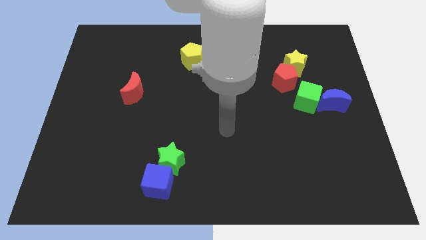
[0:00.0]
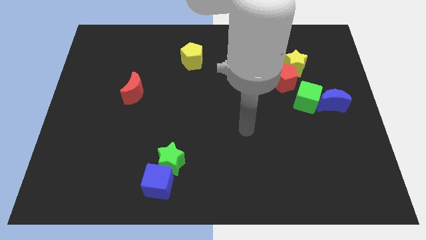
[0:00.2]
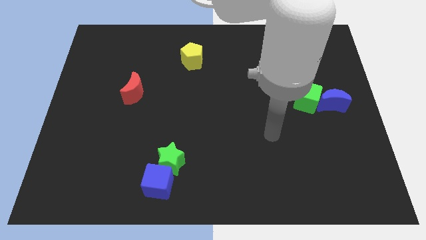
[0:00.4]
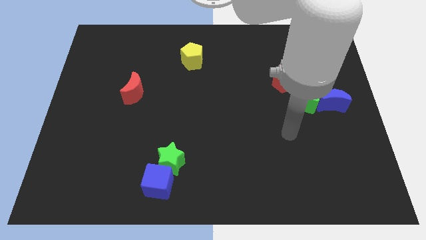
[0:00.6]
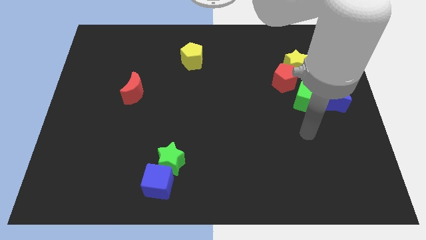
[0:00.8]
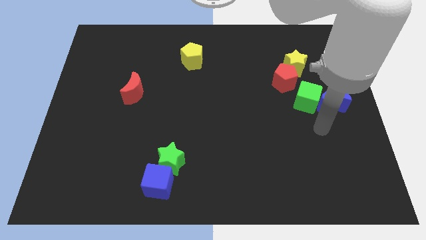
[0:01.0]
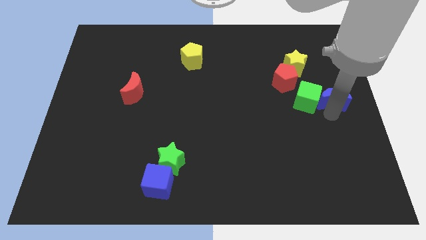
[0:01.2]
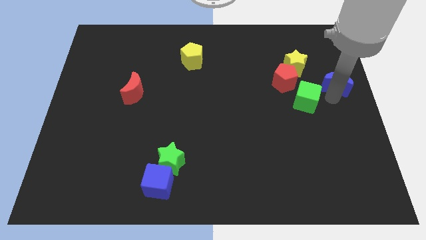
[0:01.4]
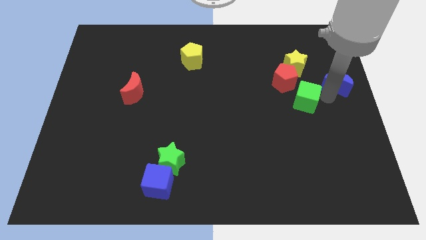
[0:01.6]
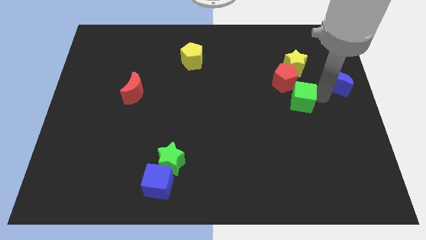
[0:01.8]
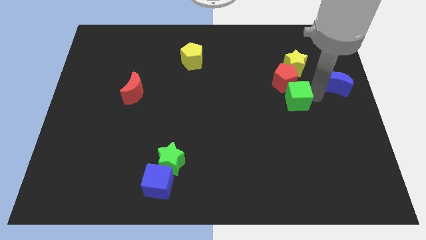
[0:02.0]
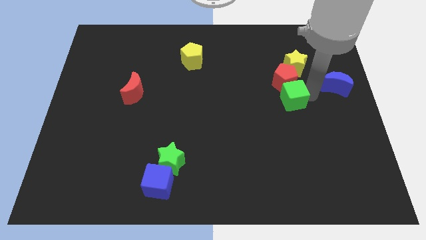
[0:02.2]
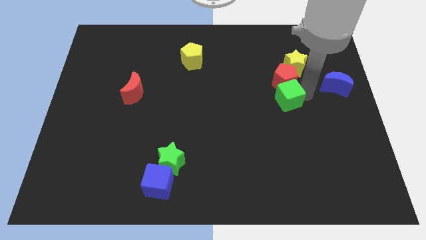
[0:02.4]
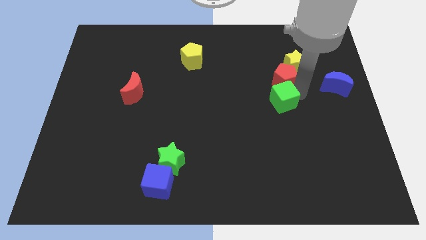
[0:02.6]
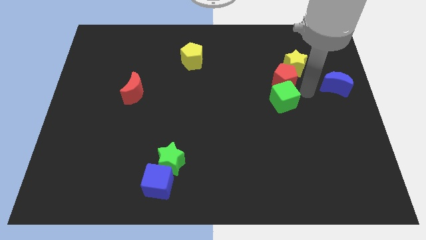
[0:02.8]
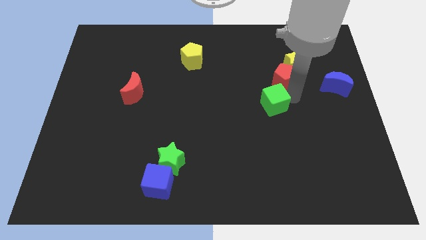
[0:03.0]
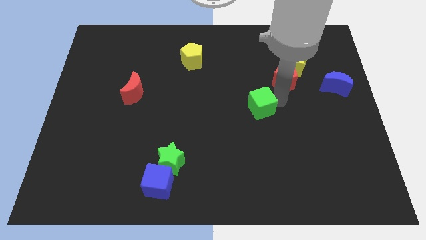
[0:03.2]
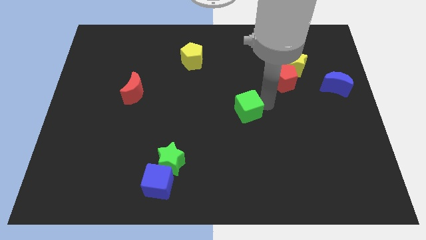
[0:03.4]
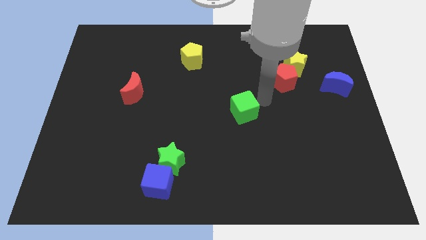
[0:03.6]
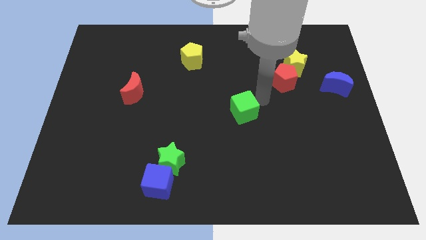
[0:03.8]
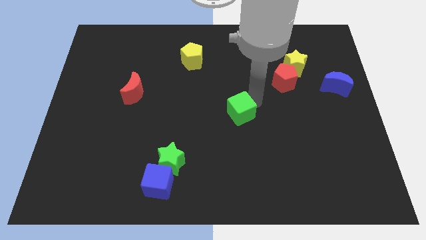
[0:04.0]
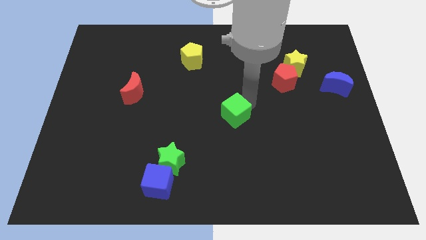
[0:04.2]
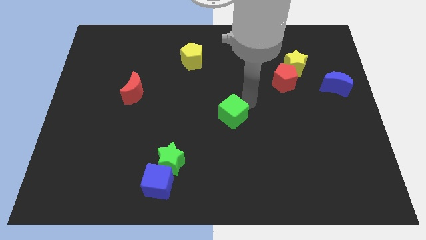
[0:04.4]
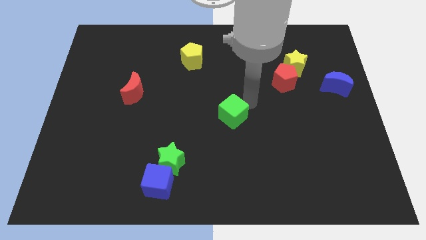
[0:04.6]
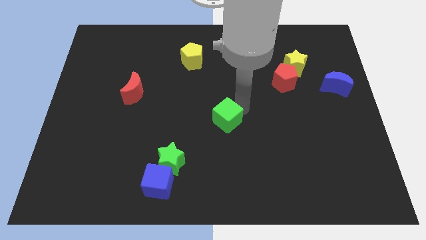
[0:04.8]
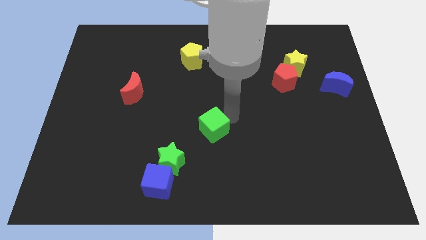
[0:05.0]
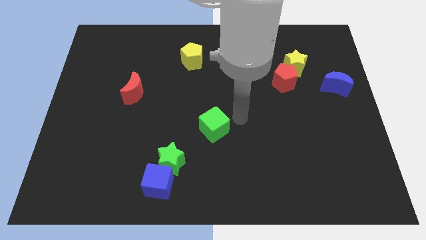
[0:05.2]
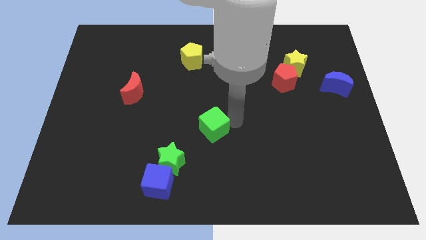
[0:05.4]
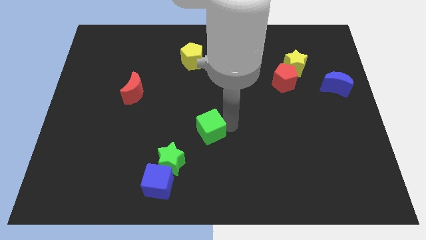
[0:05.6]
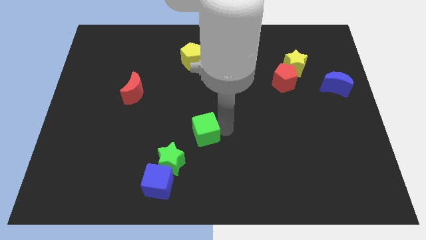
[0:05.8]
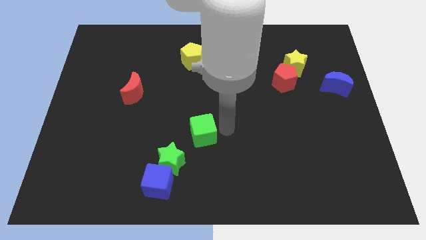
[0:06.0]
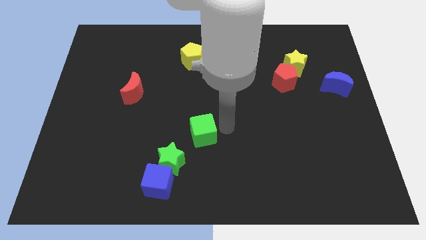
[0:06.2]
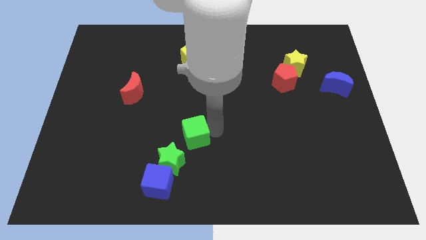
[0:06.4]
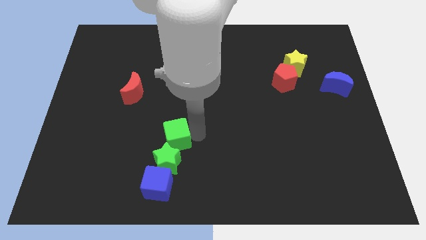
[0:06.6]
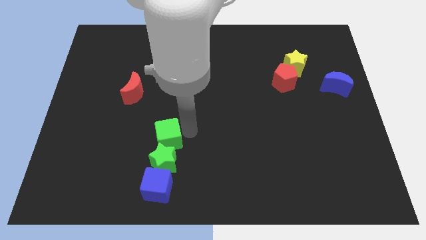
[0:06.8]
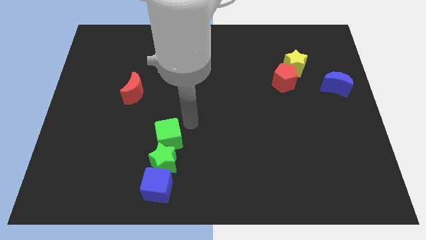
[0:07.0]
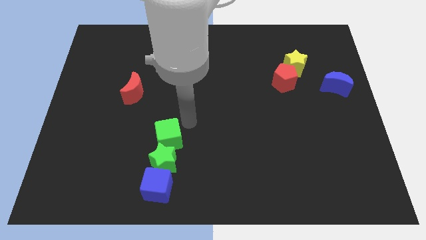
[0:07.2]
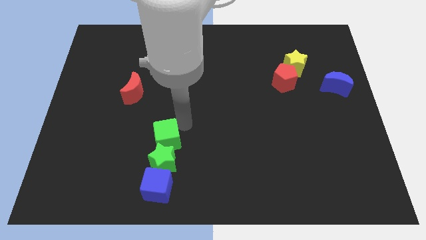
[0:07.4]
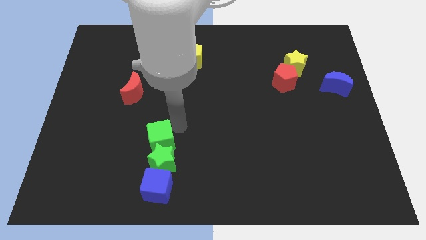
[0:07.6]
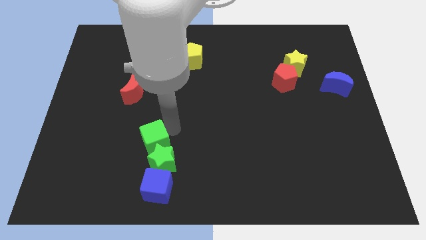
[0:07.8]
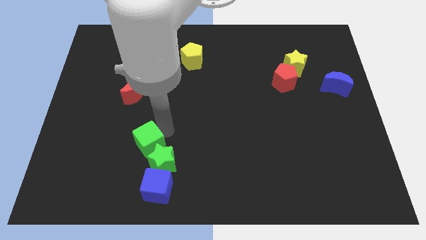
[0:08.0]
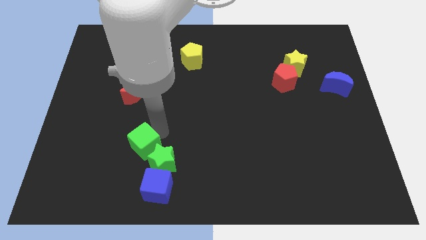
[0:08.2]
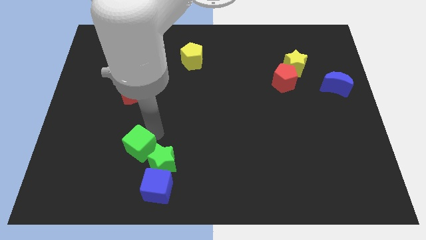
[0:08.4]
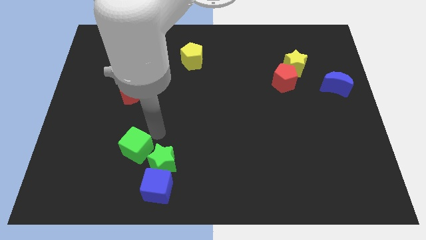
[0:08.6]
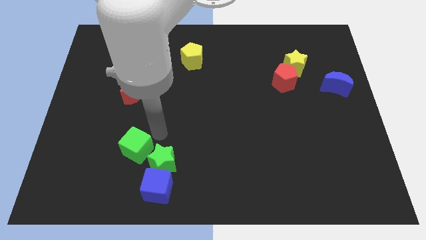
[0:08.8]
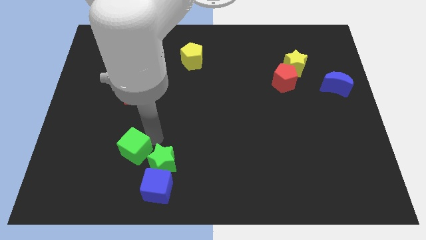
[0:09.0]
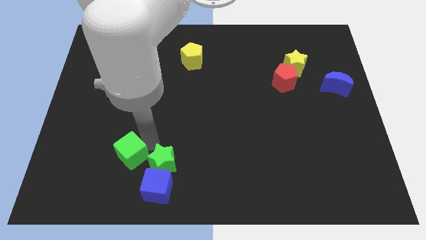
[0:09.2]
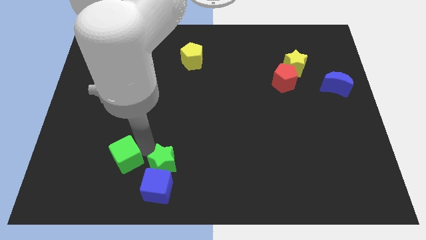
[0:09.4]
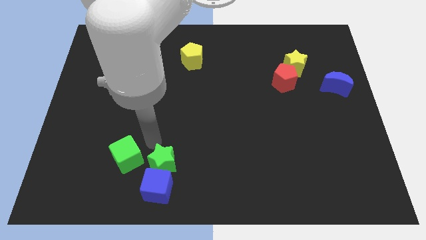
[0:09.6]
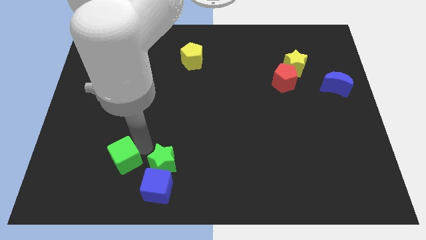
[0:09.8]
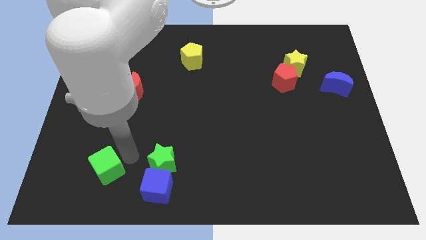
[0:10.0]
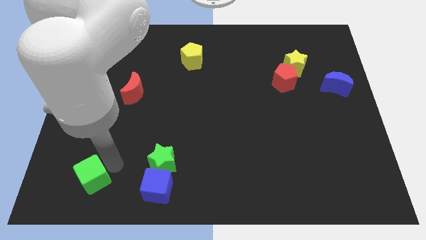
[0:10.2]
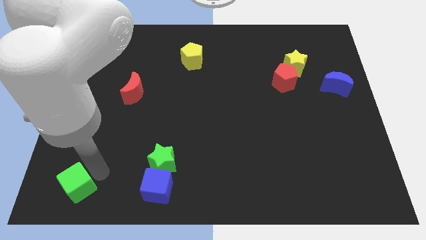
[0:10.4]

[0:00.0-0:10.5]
move the green cube to the bottom left

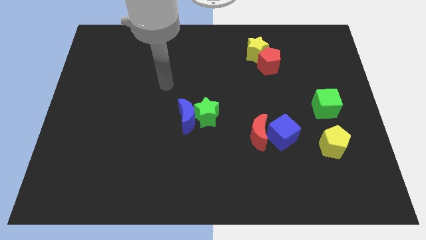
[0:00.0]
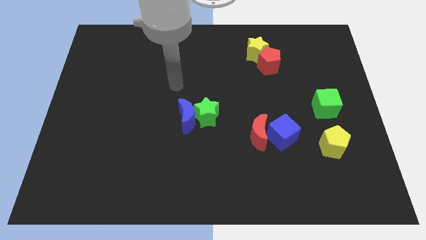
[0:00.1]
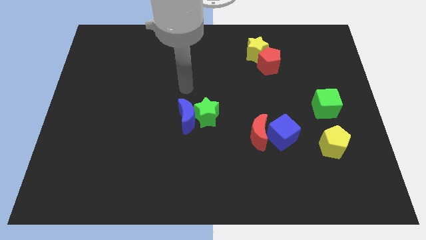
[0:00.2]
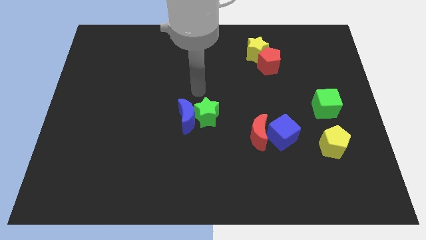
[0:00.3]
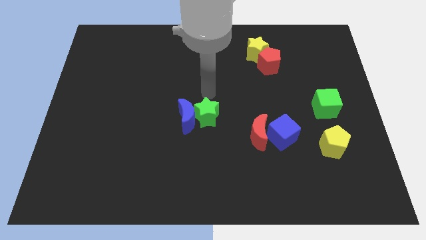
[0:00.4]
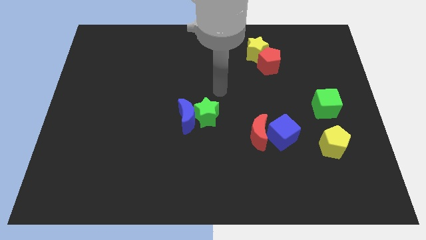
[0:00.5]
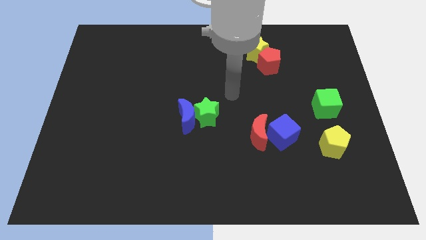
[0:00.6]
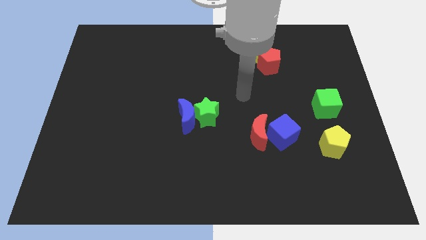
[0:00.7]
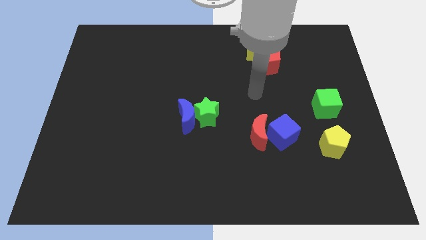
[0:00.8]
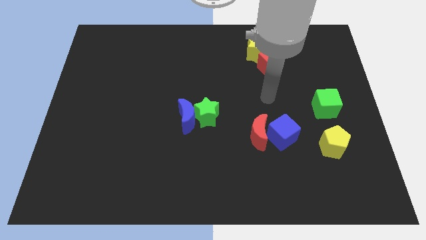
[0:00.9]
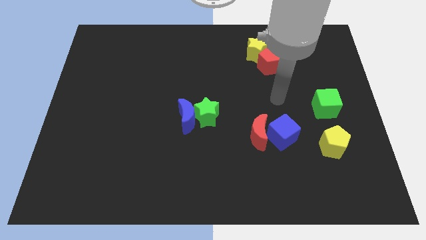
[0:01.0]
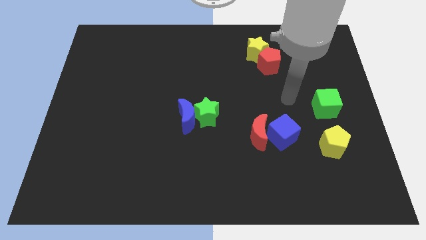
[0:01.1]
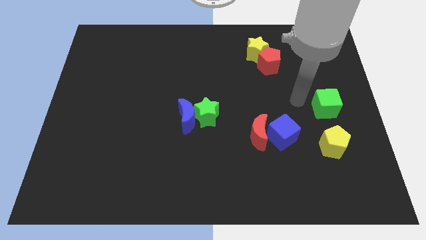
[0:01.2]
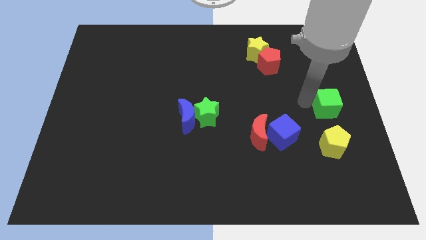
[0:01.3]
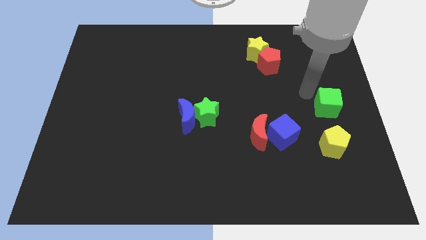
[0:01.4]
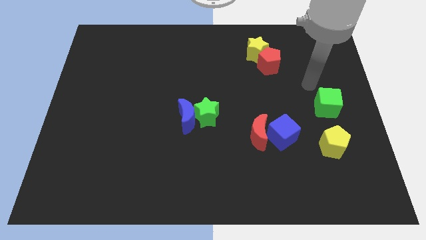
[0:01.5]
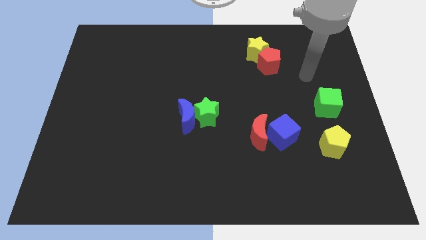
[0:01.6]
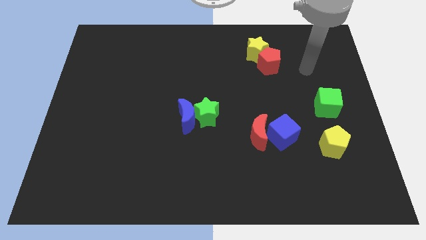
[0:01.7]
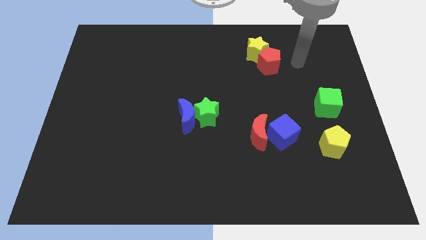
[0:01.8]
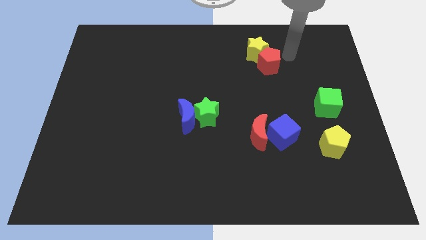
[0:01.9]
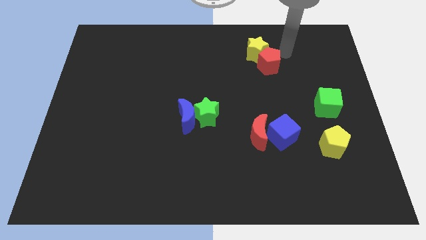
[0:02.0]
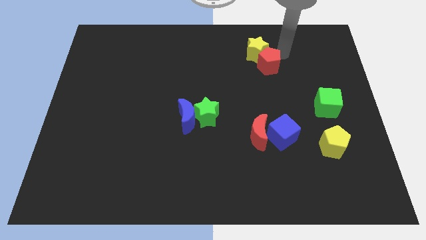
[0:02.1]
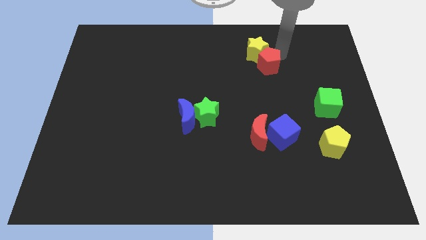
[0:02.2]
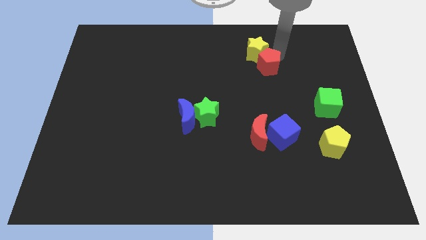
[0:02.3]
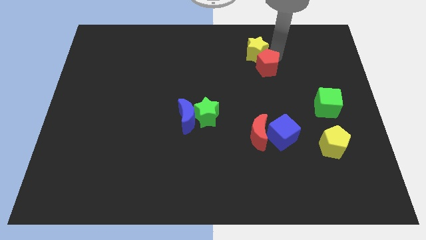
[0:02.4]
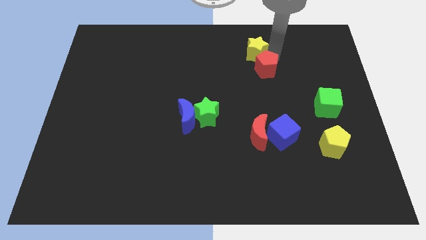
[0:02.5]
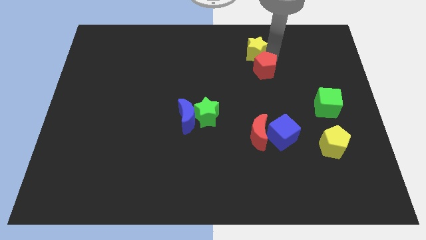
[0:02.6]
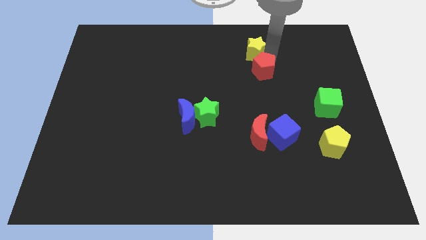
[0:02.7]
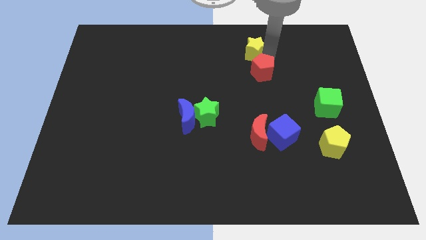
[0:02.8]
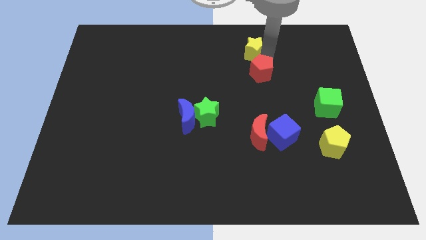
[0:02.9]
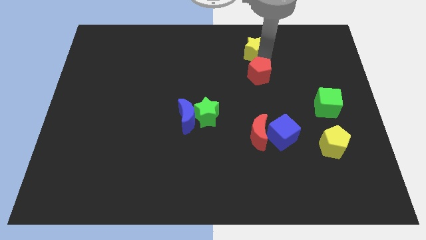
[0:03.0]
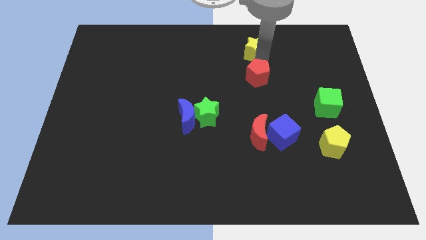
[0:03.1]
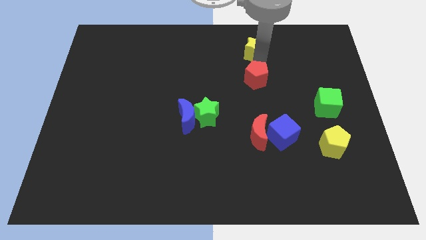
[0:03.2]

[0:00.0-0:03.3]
slide the red pentagon to the center of the board
